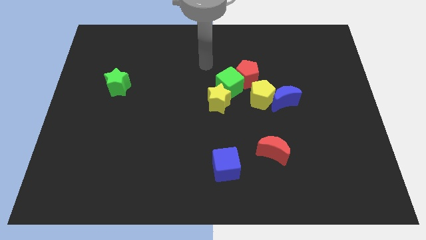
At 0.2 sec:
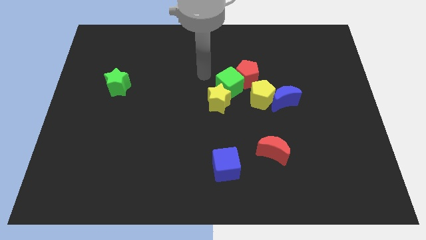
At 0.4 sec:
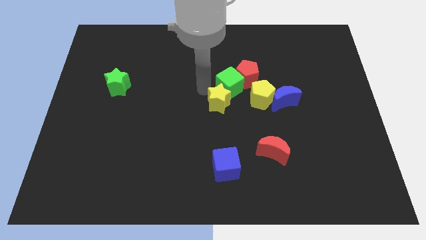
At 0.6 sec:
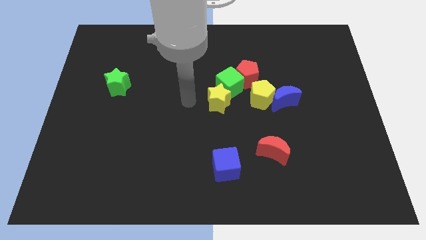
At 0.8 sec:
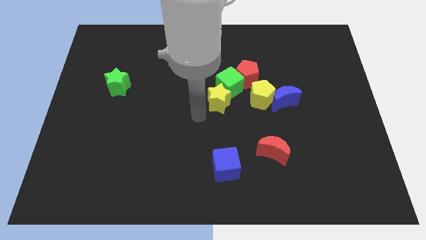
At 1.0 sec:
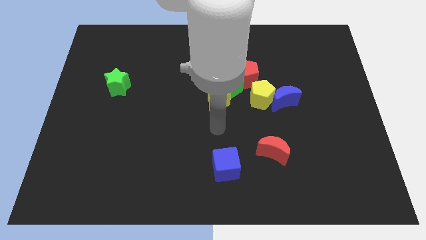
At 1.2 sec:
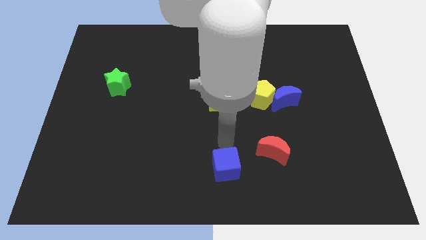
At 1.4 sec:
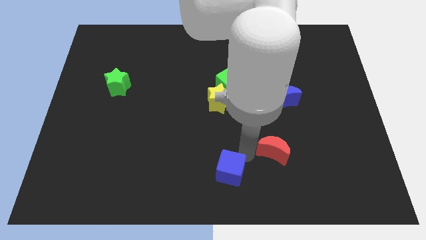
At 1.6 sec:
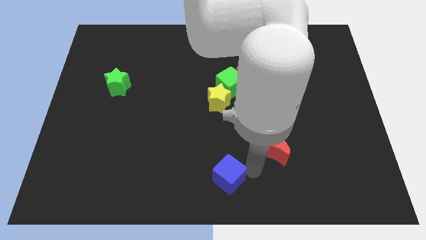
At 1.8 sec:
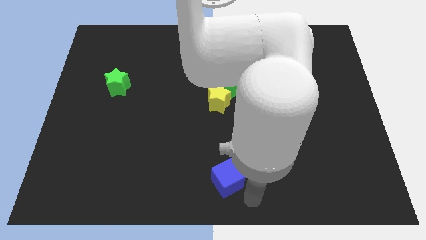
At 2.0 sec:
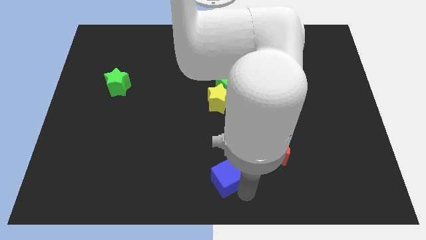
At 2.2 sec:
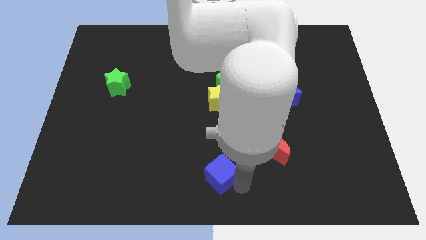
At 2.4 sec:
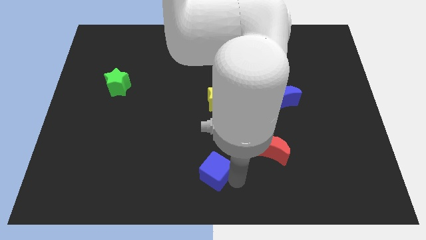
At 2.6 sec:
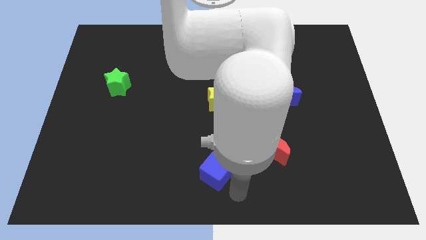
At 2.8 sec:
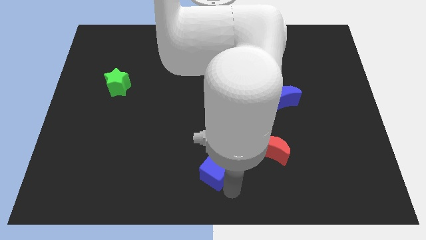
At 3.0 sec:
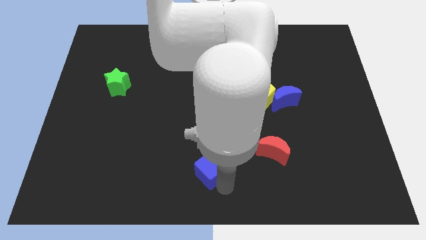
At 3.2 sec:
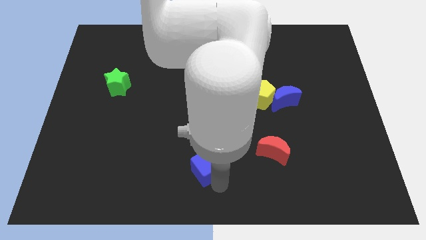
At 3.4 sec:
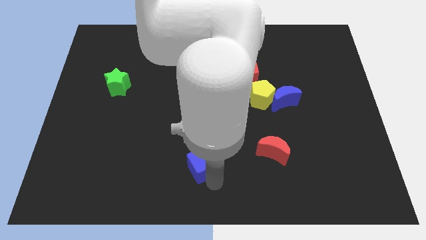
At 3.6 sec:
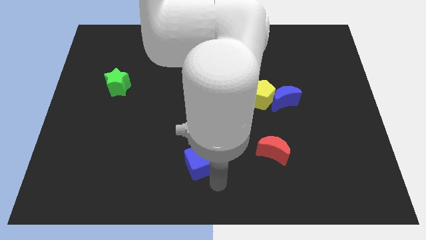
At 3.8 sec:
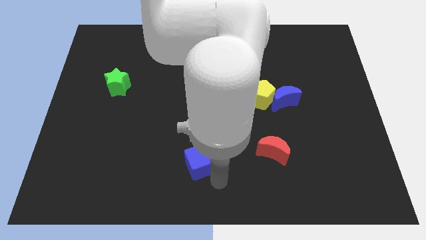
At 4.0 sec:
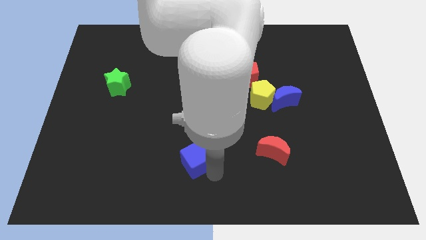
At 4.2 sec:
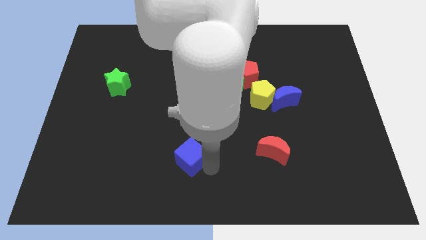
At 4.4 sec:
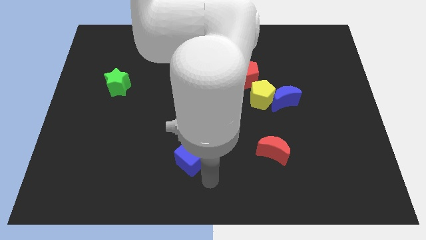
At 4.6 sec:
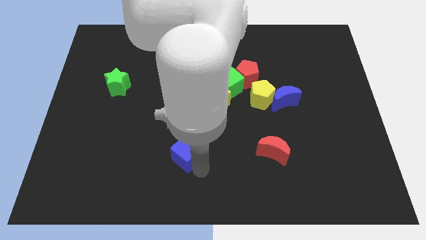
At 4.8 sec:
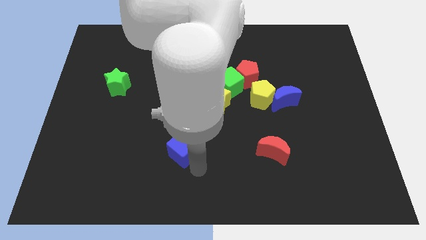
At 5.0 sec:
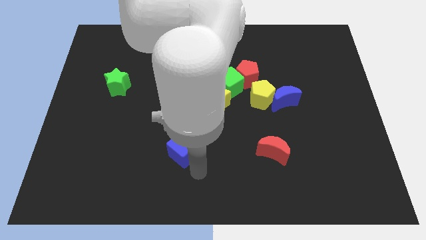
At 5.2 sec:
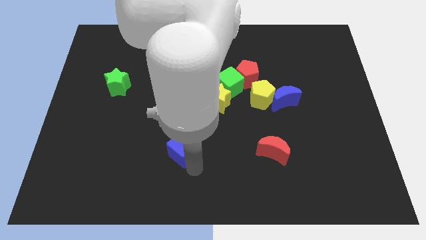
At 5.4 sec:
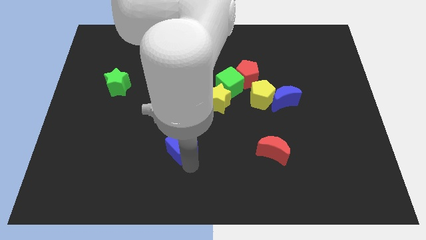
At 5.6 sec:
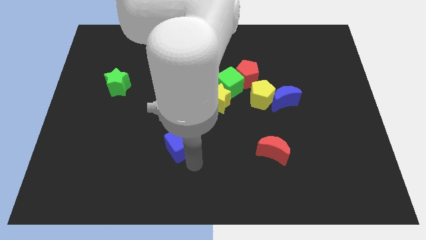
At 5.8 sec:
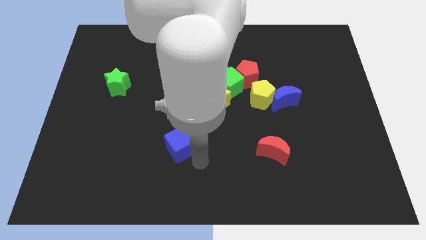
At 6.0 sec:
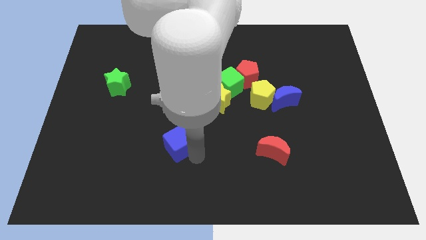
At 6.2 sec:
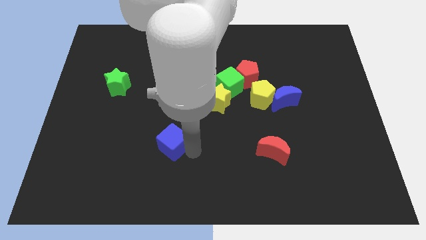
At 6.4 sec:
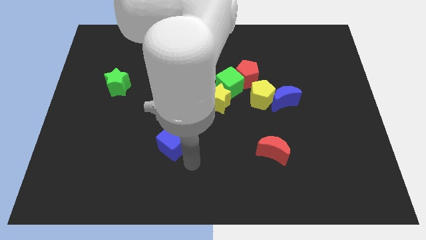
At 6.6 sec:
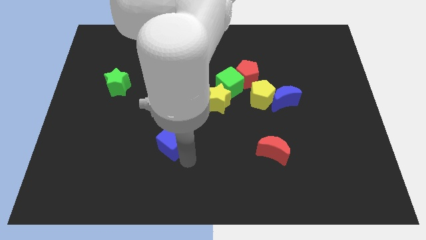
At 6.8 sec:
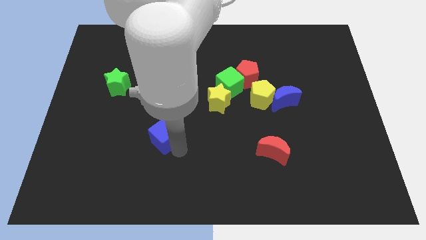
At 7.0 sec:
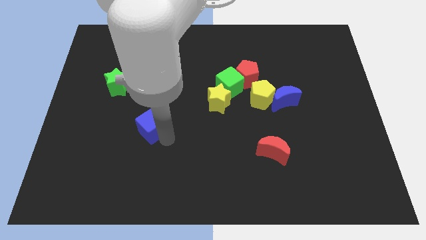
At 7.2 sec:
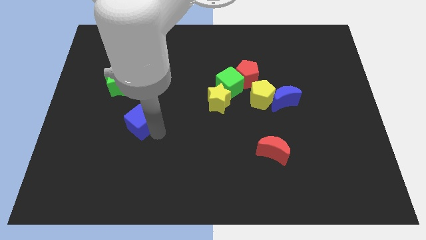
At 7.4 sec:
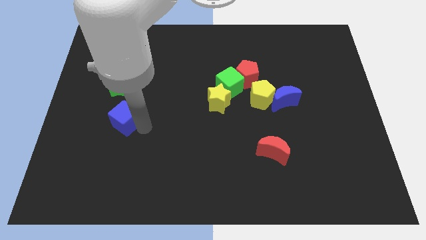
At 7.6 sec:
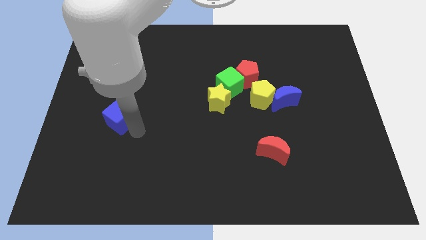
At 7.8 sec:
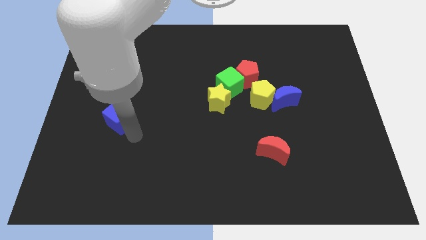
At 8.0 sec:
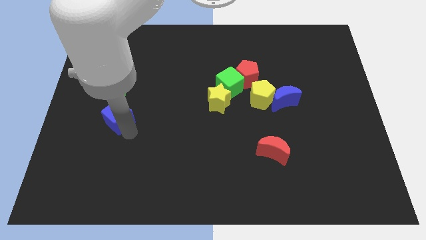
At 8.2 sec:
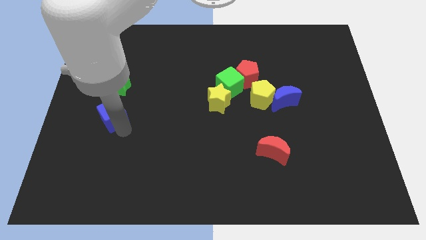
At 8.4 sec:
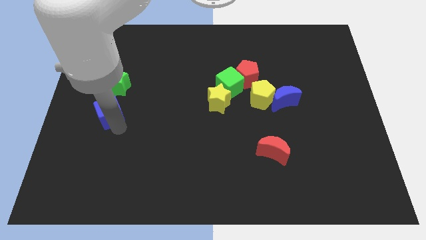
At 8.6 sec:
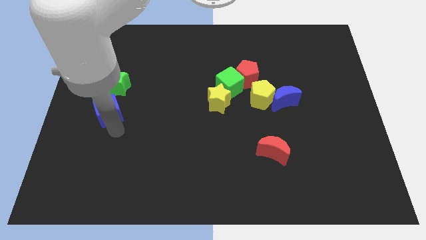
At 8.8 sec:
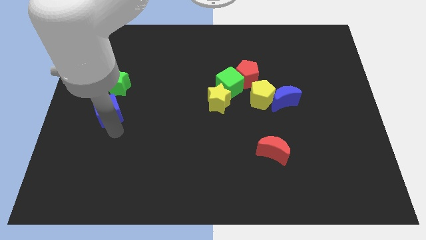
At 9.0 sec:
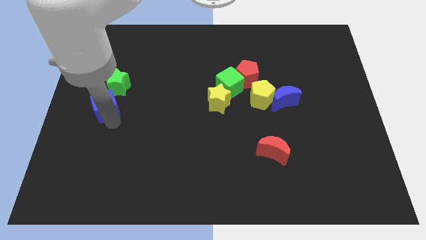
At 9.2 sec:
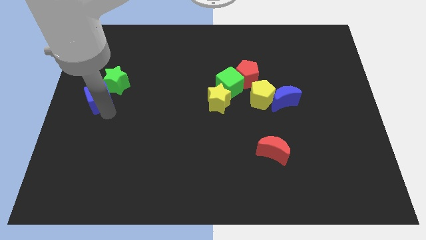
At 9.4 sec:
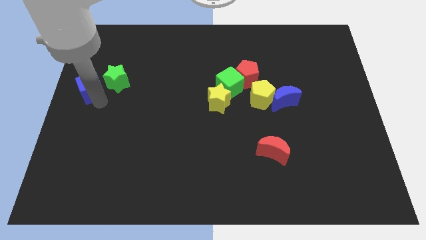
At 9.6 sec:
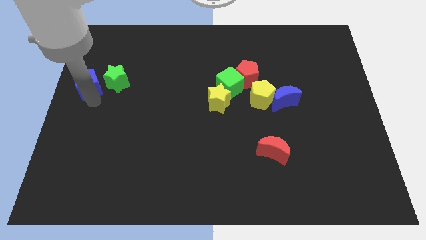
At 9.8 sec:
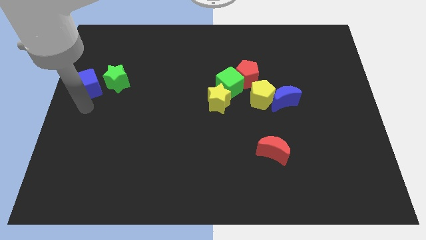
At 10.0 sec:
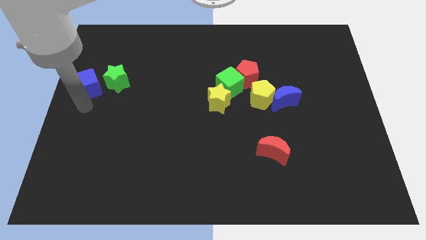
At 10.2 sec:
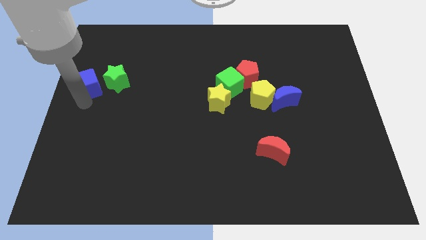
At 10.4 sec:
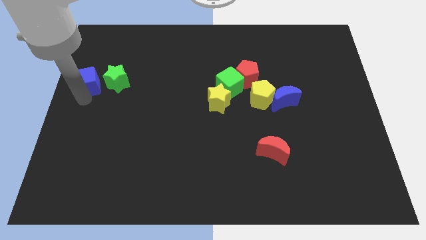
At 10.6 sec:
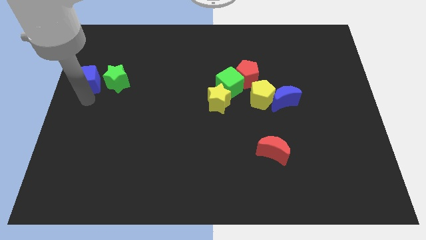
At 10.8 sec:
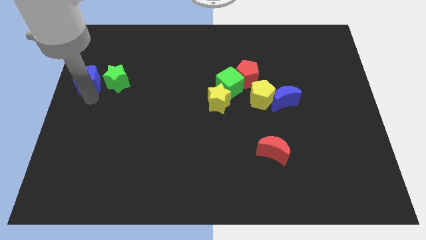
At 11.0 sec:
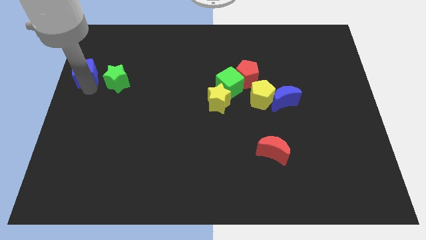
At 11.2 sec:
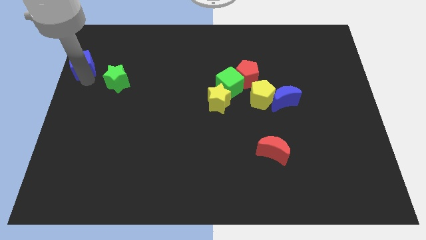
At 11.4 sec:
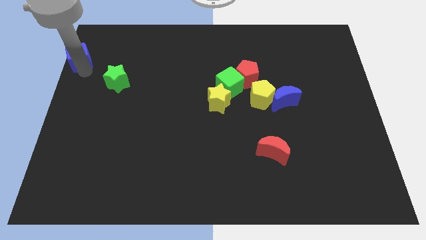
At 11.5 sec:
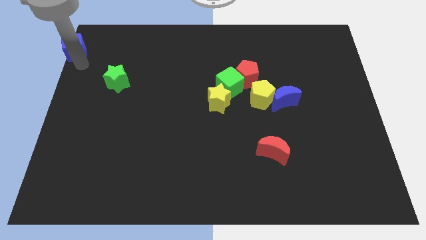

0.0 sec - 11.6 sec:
put the blue cube to the upper left corner

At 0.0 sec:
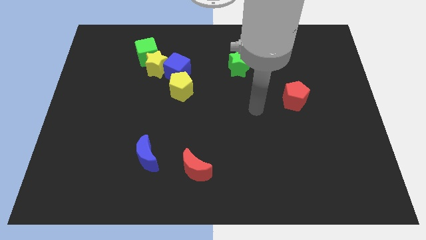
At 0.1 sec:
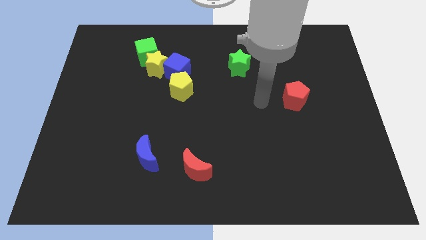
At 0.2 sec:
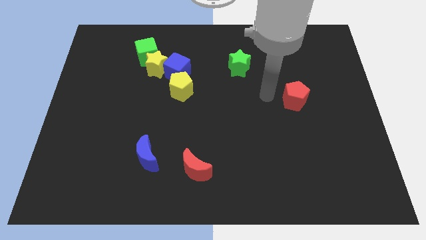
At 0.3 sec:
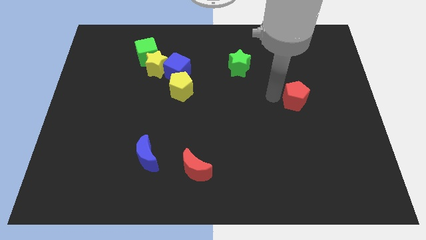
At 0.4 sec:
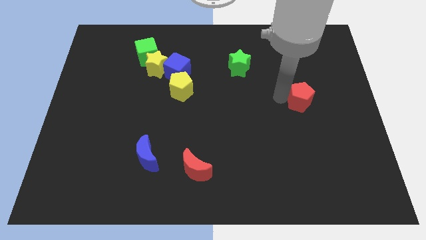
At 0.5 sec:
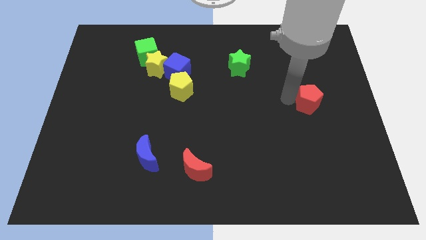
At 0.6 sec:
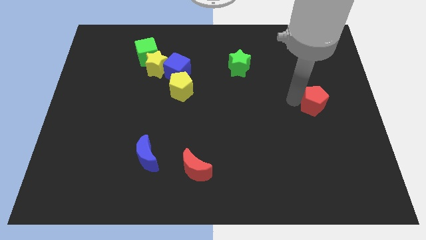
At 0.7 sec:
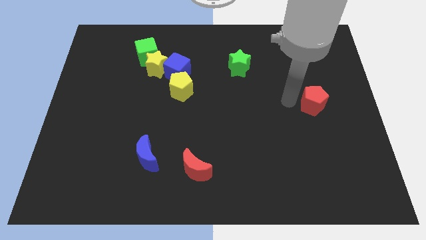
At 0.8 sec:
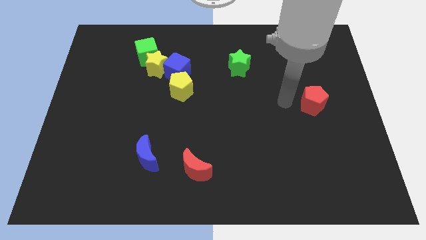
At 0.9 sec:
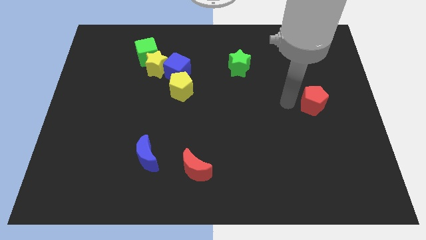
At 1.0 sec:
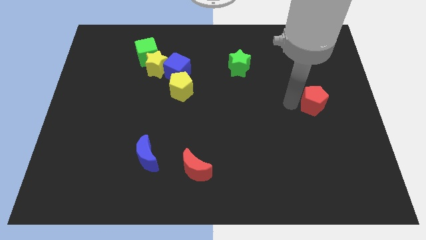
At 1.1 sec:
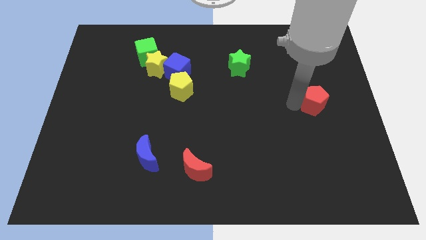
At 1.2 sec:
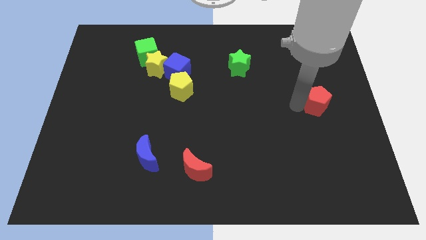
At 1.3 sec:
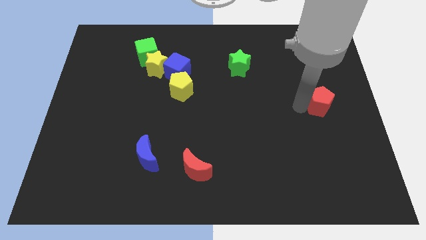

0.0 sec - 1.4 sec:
slide the red pentagon to the right side

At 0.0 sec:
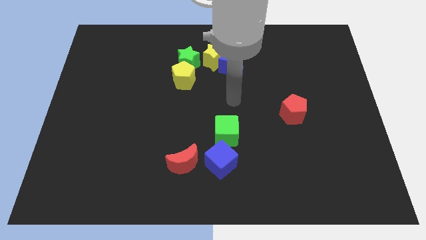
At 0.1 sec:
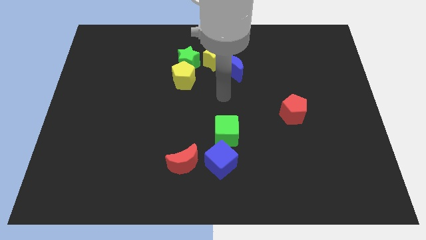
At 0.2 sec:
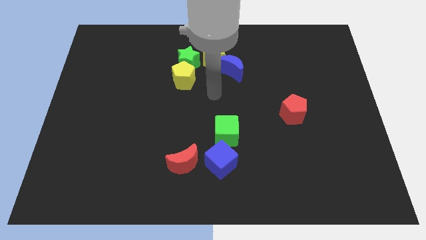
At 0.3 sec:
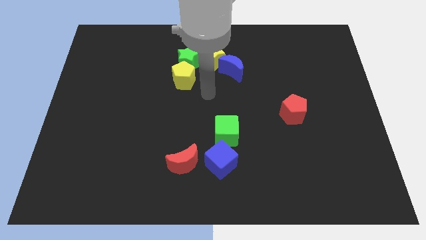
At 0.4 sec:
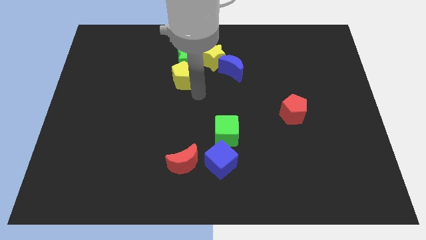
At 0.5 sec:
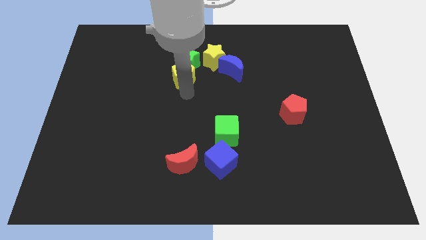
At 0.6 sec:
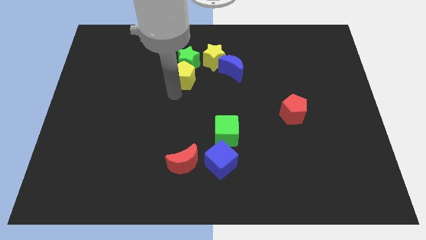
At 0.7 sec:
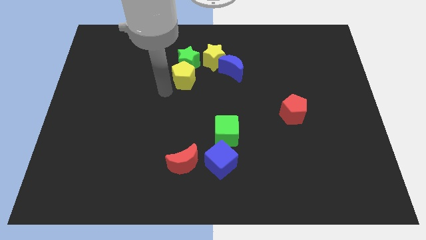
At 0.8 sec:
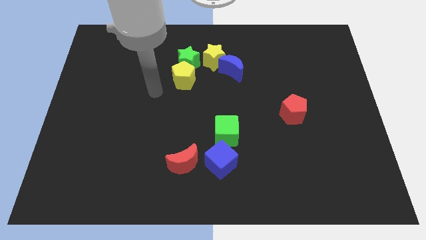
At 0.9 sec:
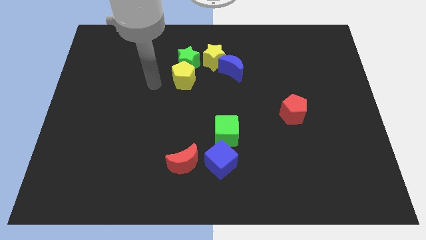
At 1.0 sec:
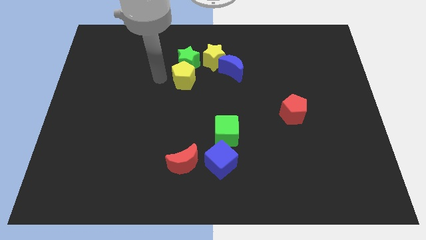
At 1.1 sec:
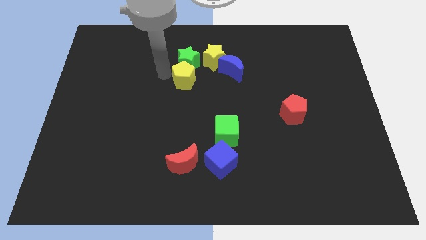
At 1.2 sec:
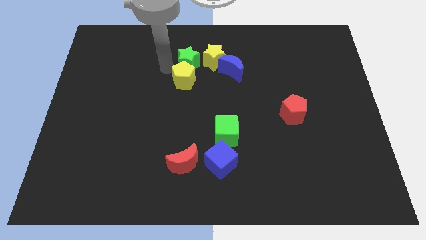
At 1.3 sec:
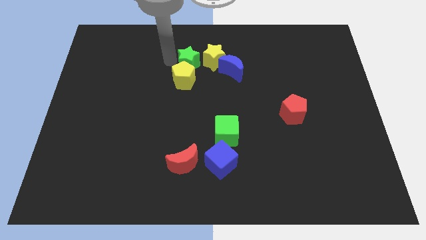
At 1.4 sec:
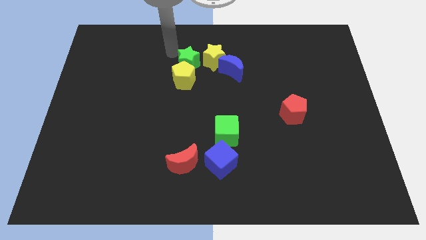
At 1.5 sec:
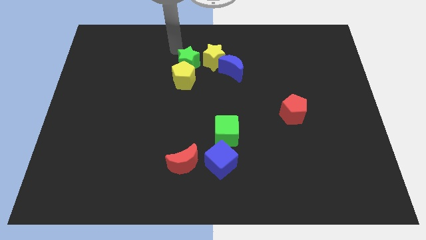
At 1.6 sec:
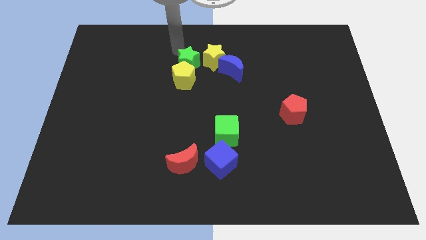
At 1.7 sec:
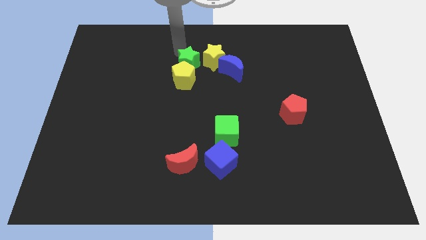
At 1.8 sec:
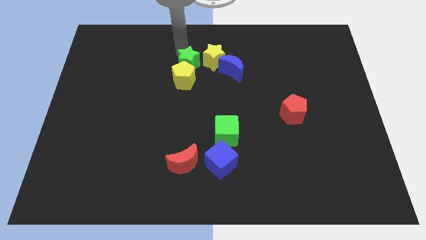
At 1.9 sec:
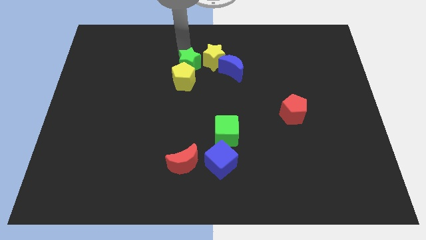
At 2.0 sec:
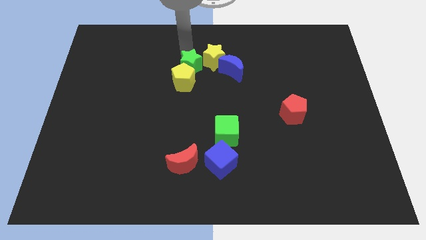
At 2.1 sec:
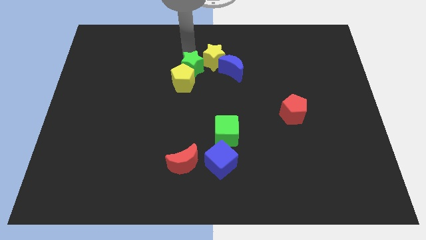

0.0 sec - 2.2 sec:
push the green star to the middle
